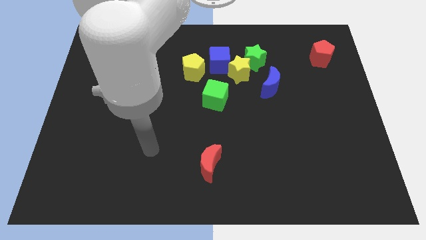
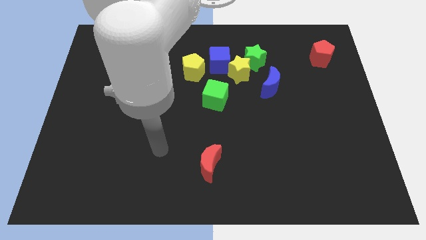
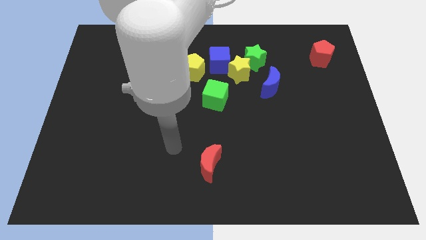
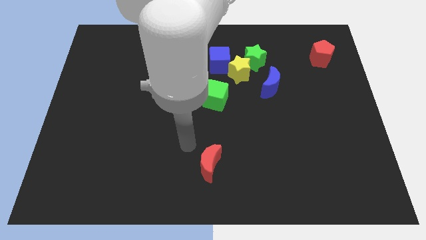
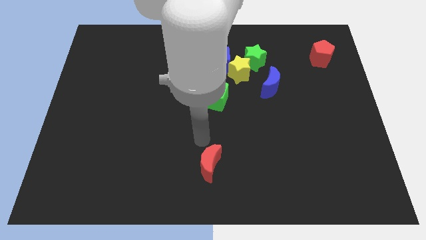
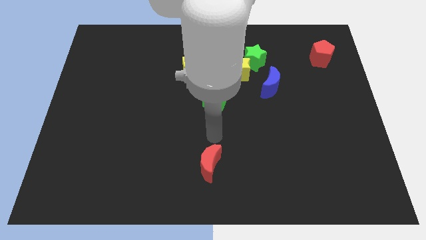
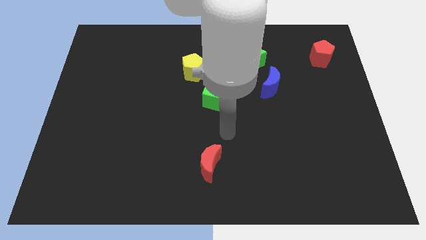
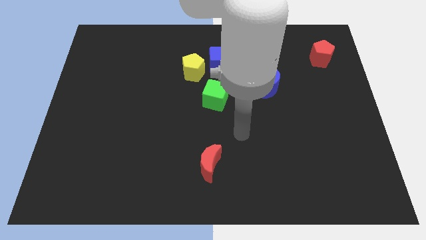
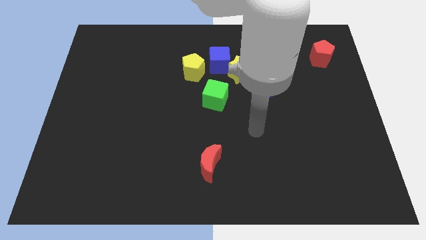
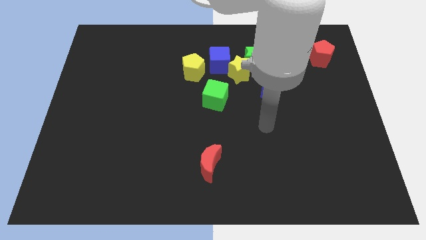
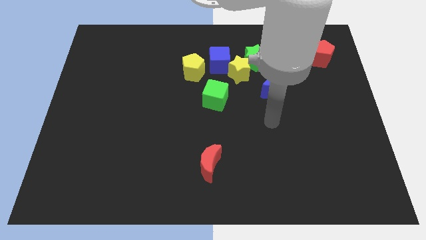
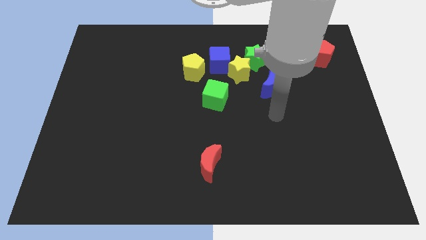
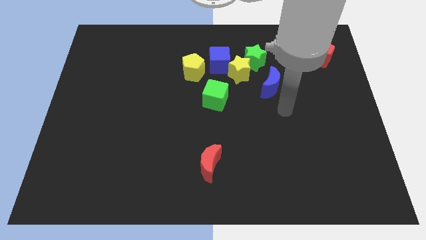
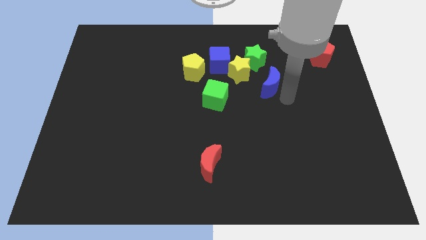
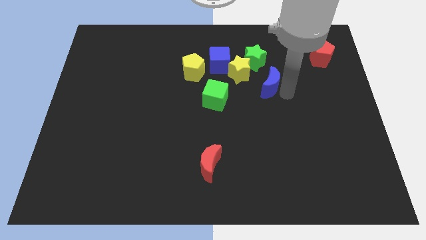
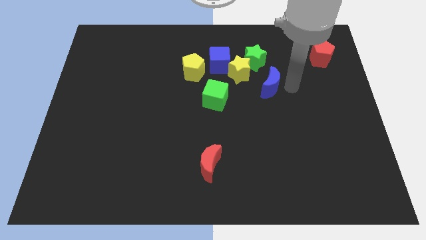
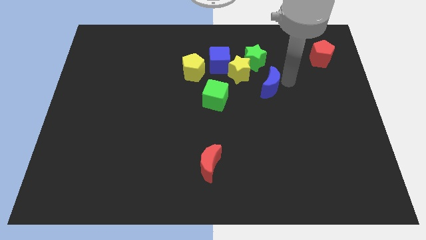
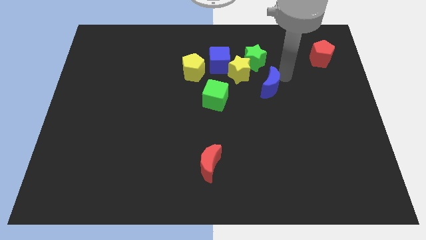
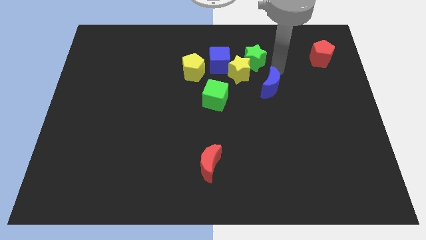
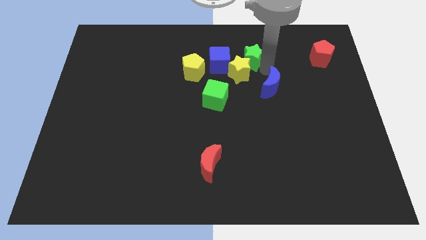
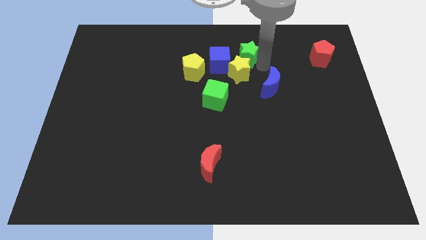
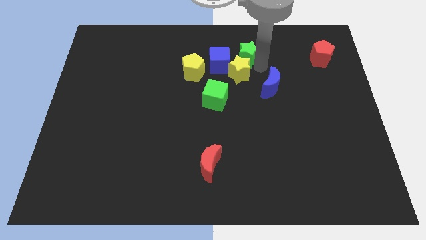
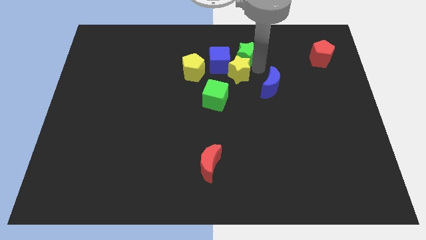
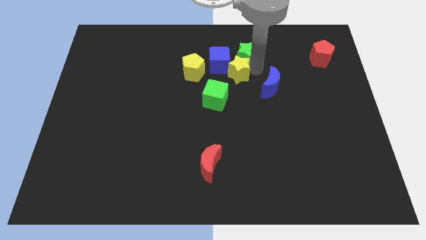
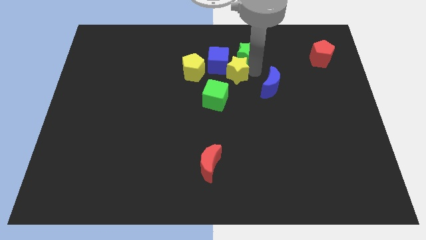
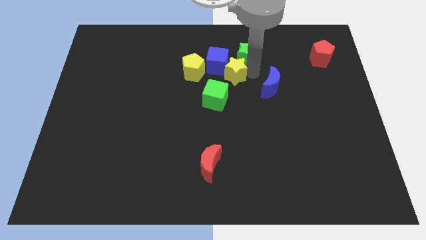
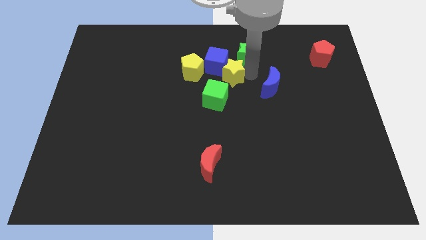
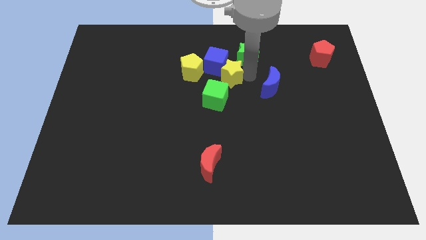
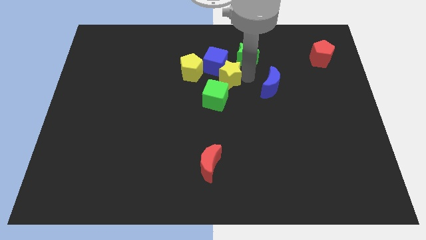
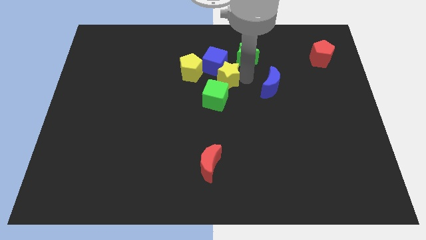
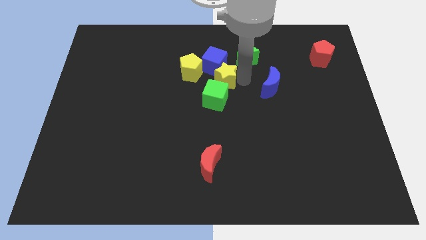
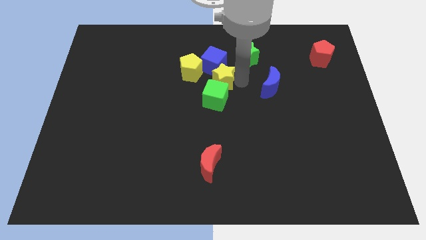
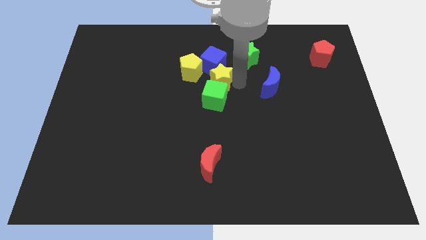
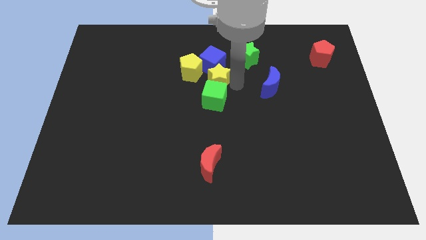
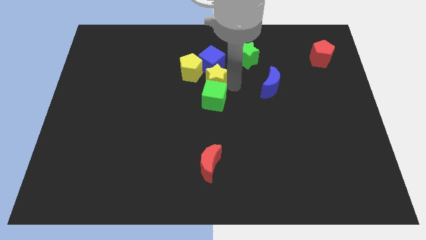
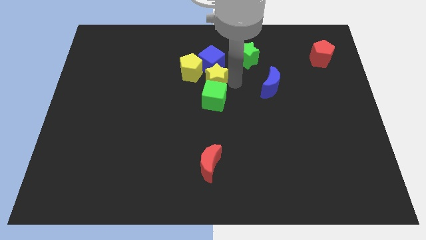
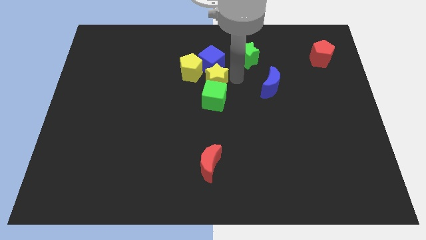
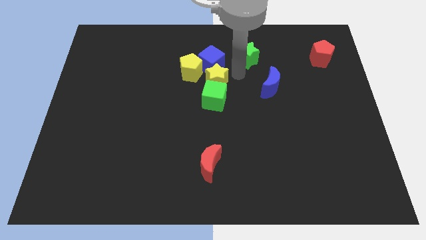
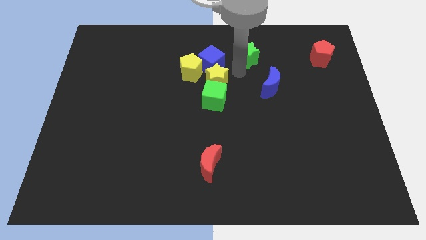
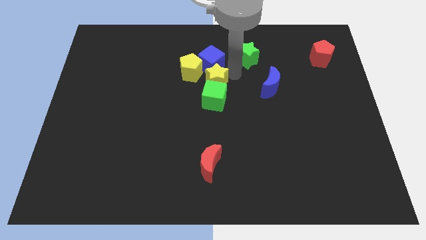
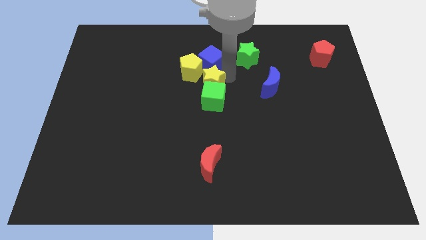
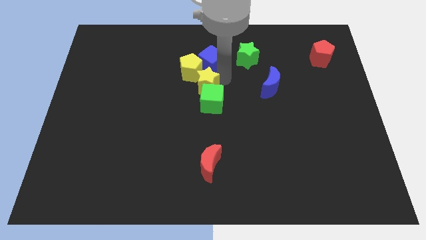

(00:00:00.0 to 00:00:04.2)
move the yellow star away from the clump

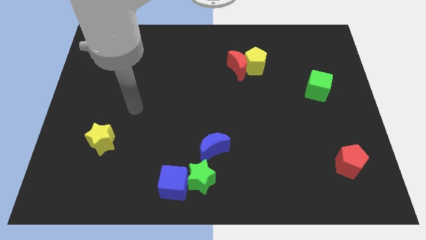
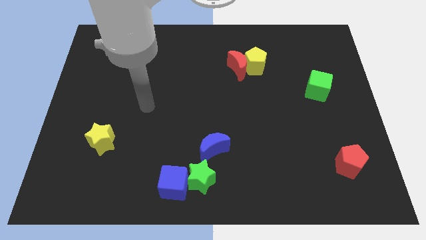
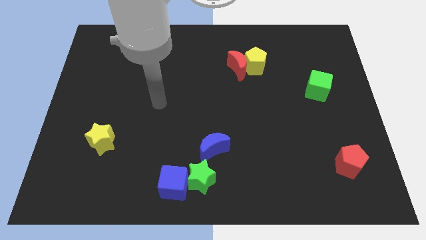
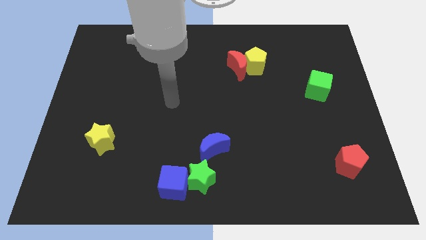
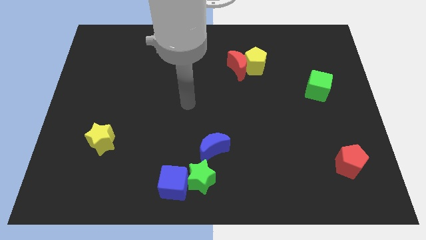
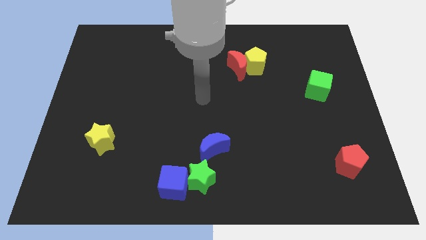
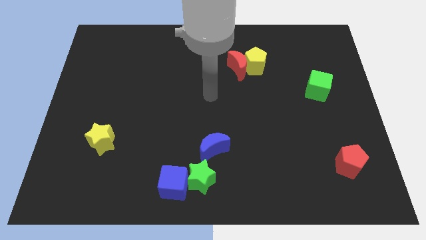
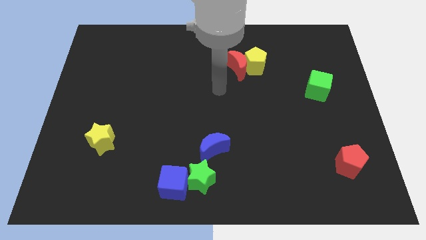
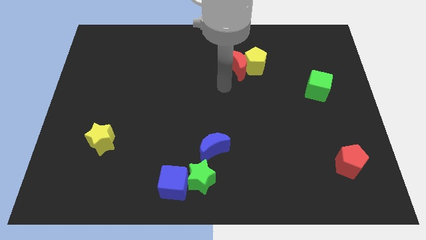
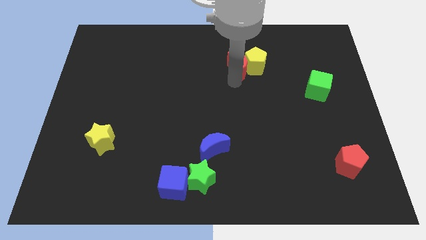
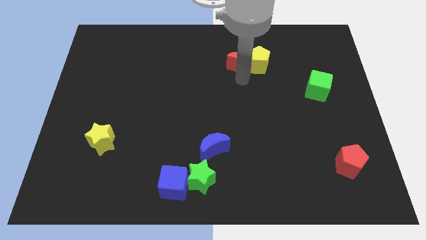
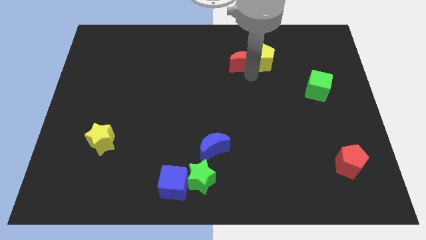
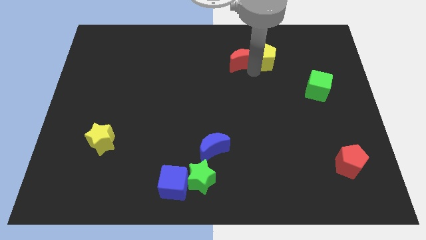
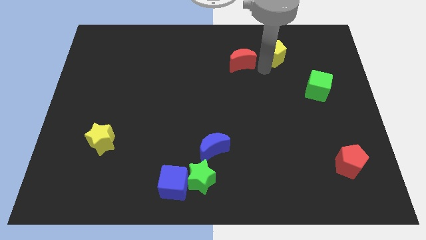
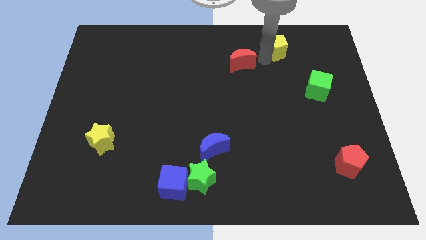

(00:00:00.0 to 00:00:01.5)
pull the red moon apart from the yellow pentagon

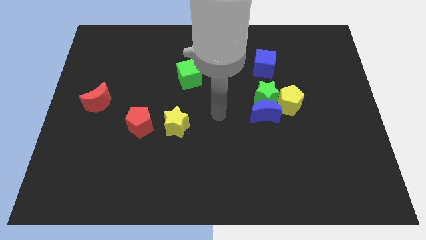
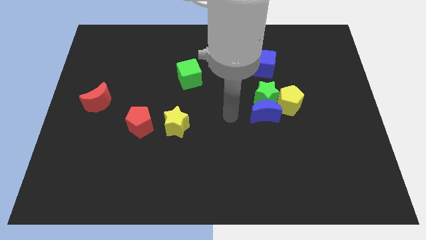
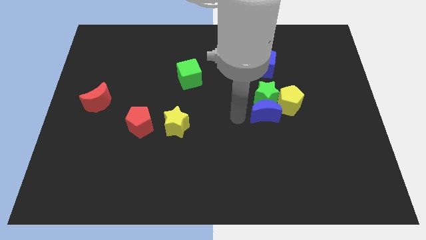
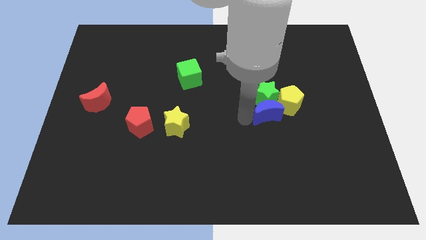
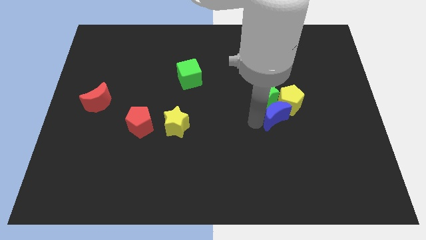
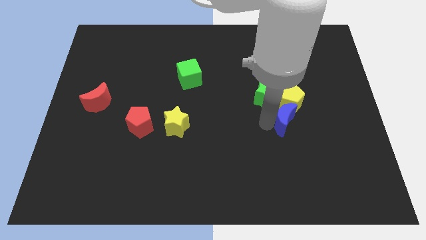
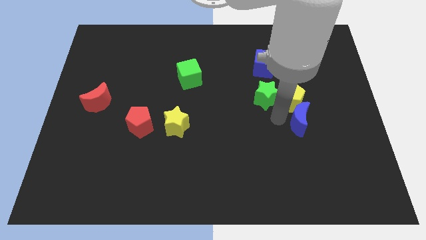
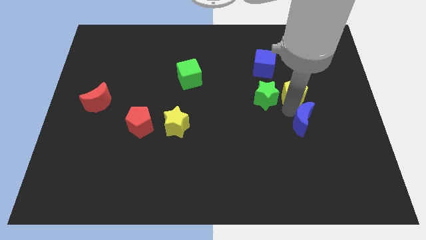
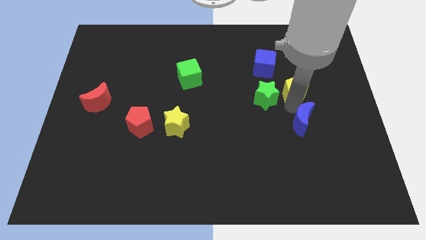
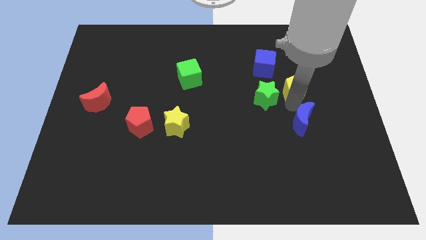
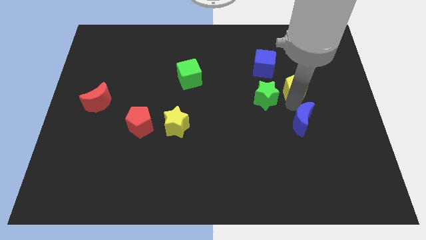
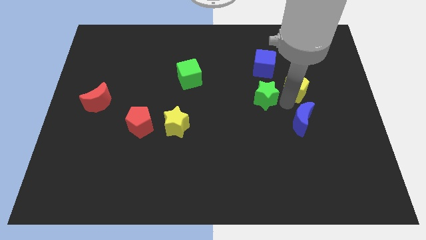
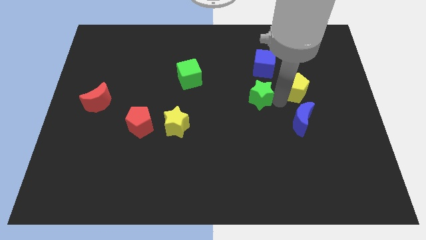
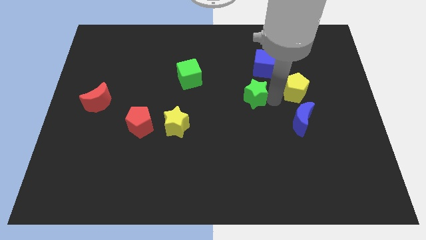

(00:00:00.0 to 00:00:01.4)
move the green star away from the blue moon and yellow pentagon

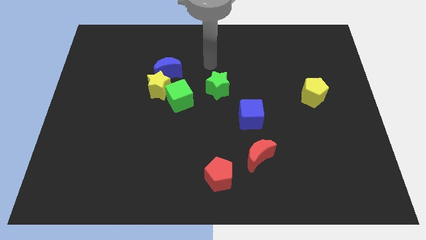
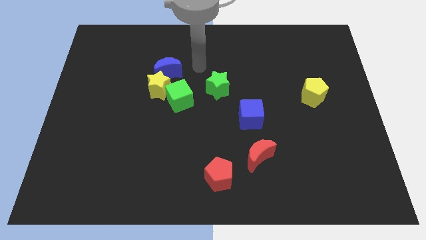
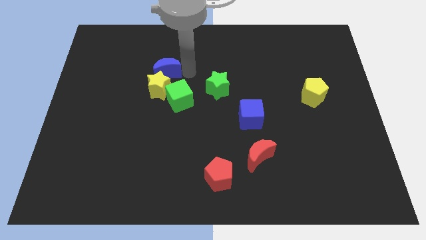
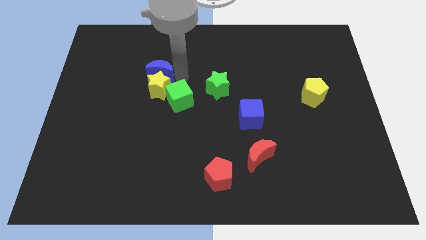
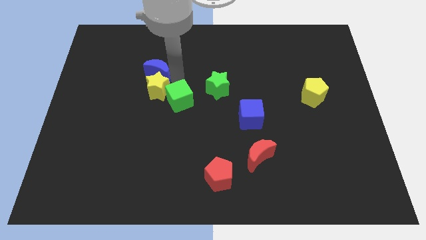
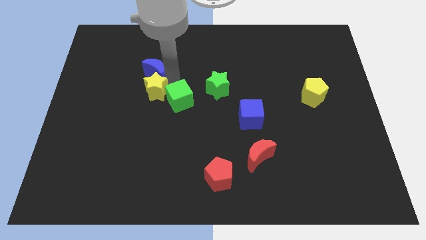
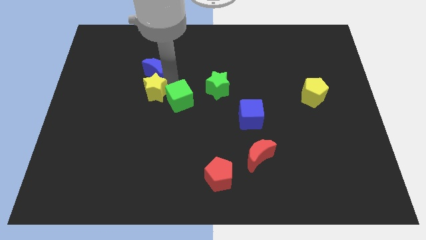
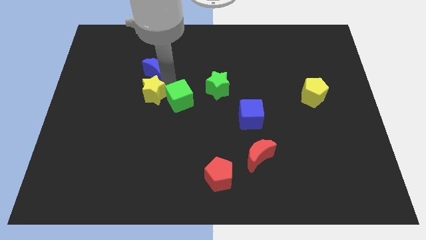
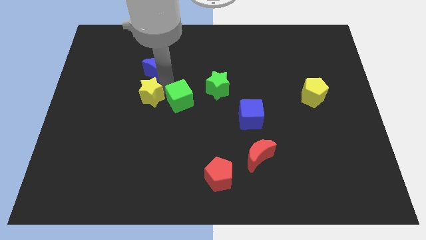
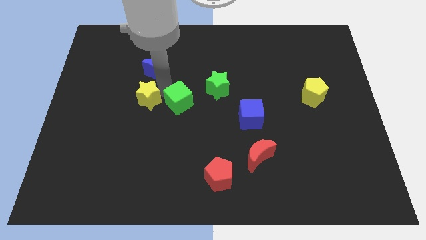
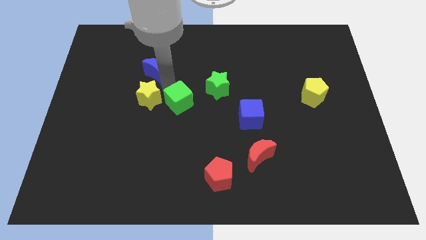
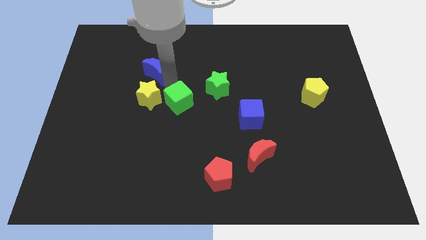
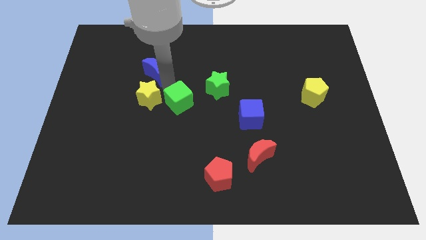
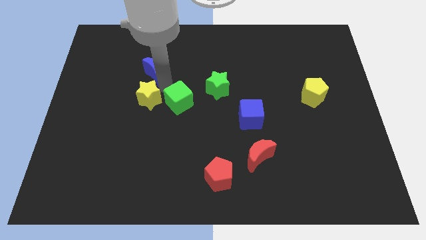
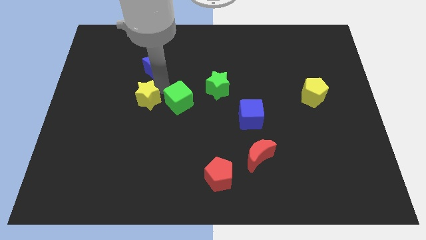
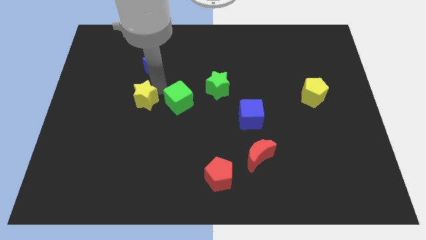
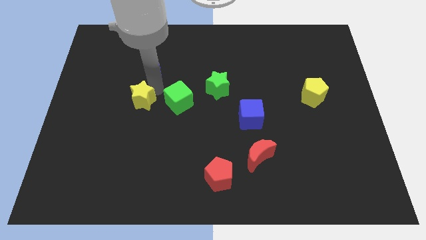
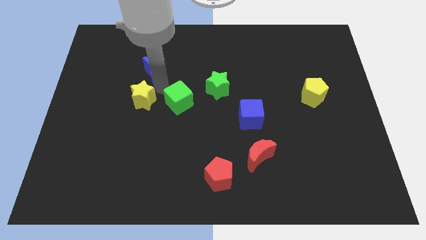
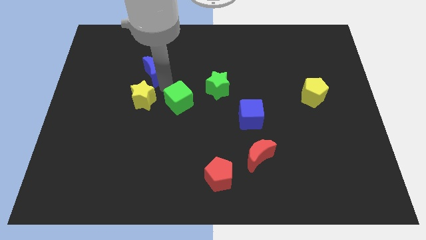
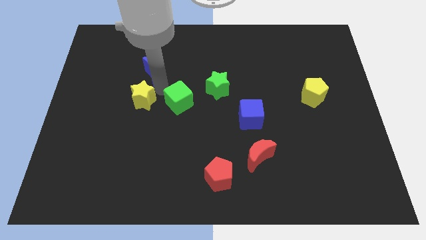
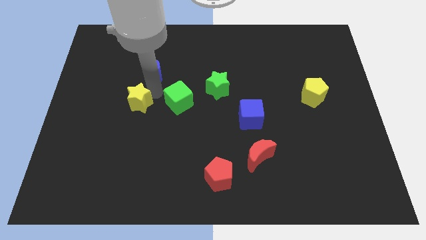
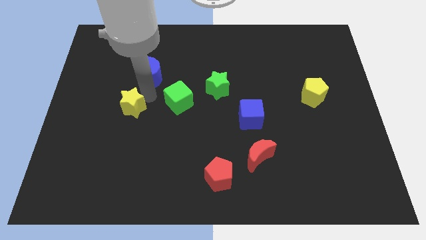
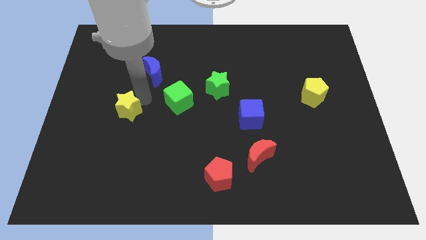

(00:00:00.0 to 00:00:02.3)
move the yellow star away from the blue moon and green cube

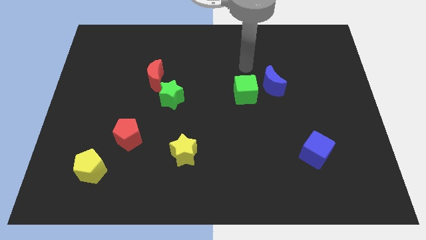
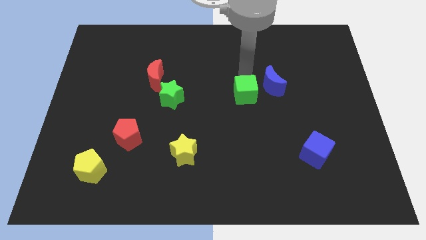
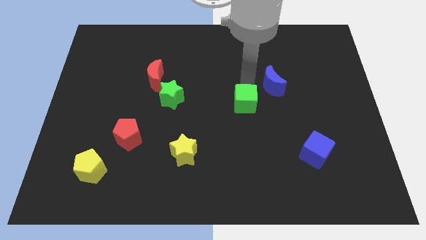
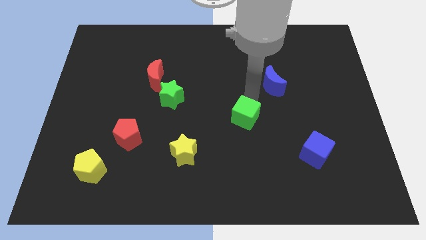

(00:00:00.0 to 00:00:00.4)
move the blue moon away from the green cube
